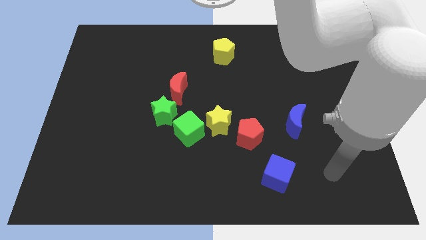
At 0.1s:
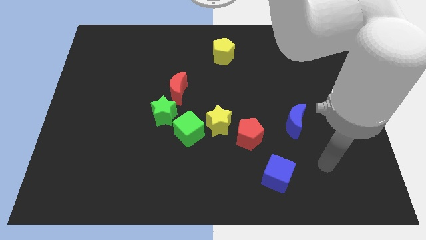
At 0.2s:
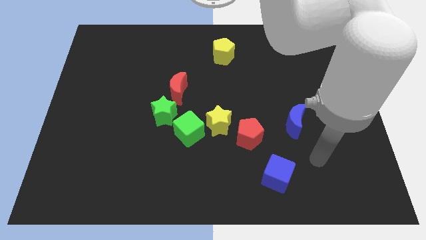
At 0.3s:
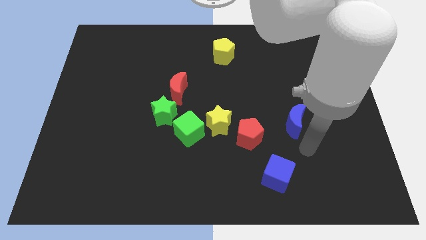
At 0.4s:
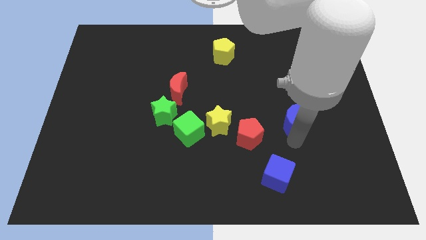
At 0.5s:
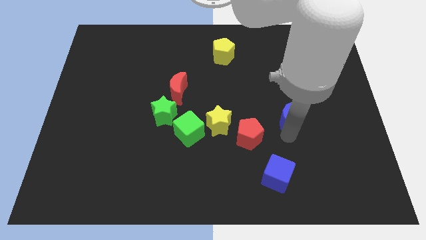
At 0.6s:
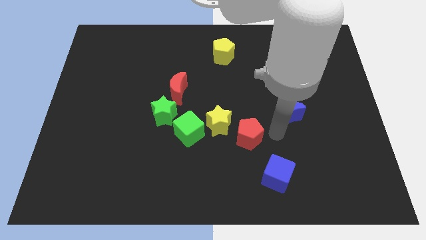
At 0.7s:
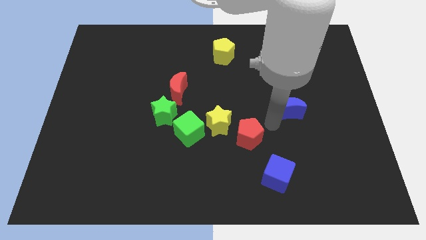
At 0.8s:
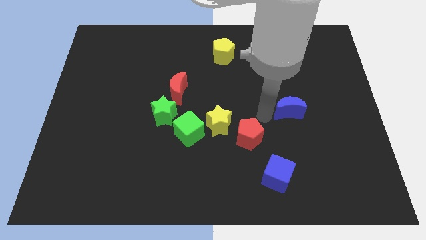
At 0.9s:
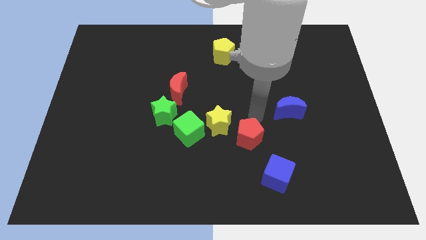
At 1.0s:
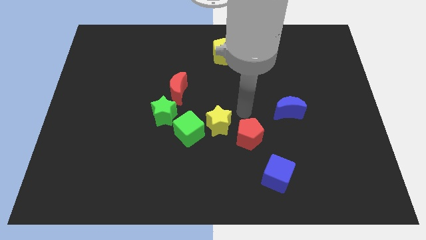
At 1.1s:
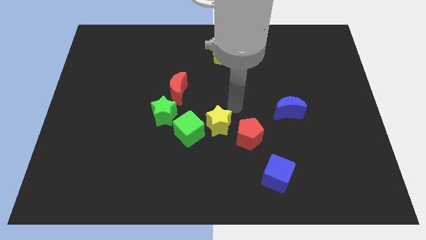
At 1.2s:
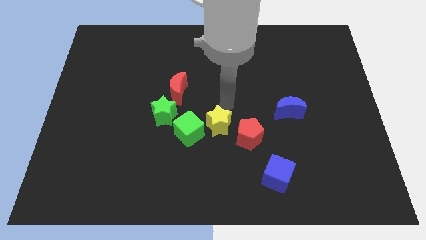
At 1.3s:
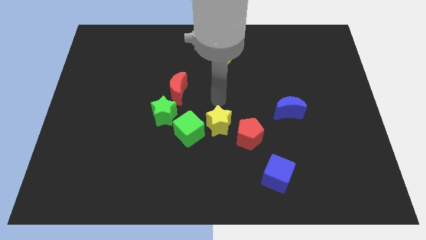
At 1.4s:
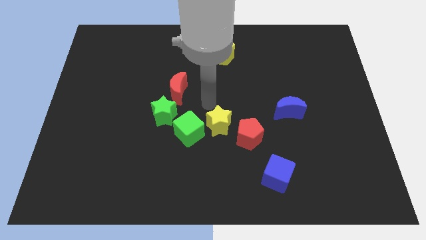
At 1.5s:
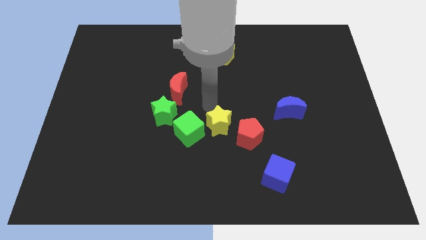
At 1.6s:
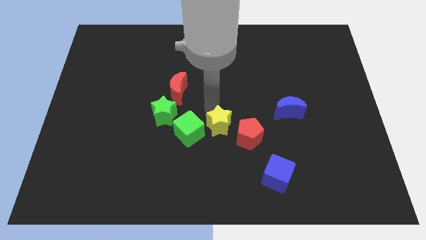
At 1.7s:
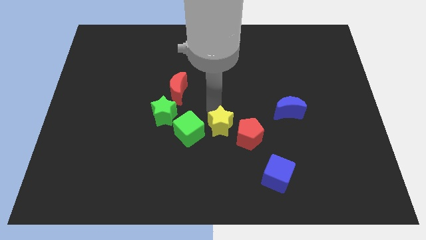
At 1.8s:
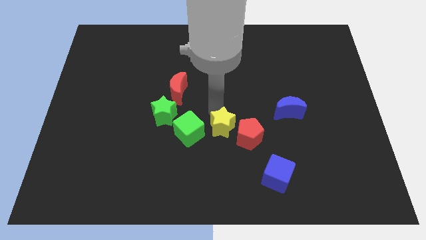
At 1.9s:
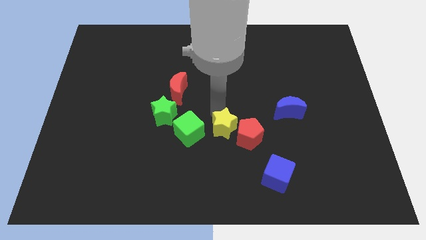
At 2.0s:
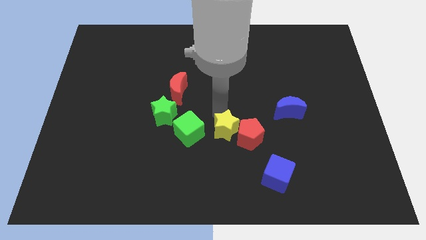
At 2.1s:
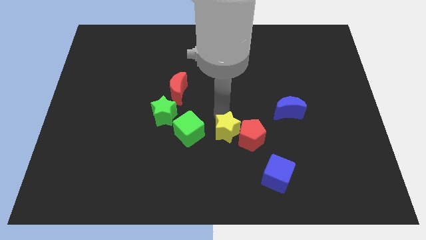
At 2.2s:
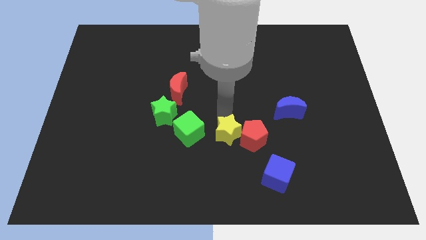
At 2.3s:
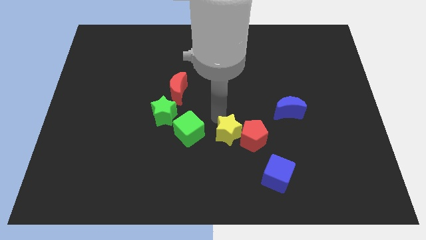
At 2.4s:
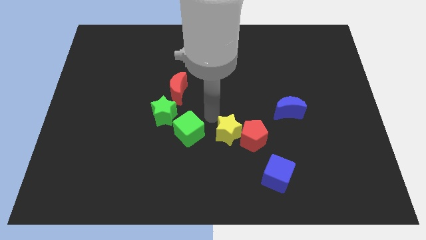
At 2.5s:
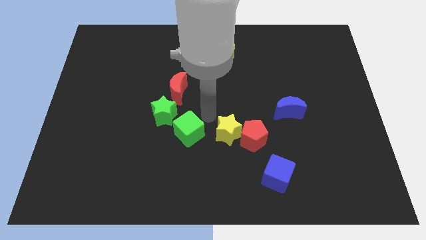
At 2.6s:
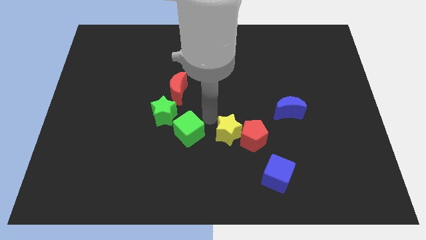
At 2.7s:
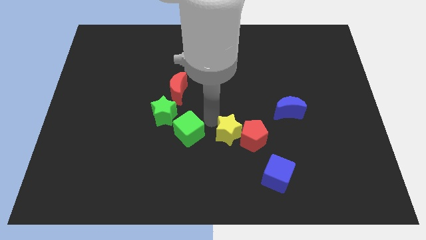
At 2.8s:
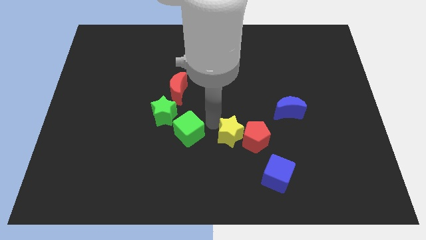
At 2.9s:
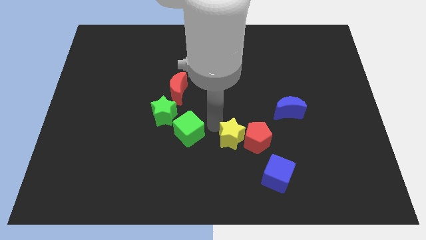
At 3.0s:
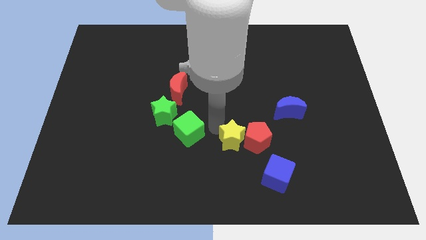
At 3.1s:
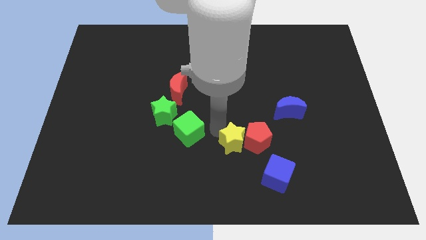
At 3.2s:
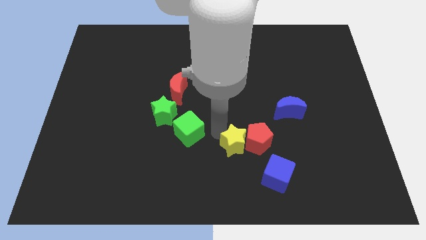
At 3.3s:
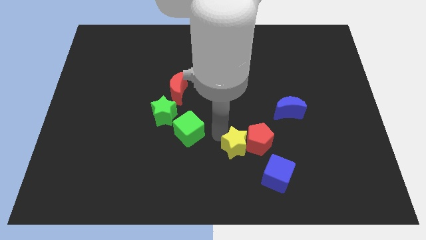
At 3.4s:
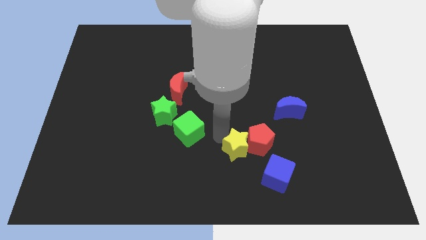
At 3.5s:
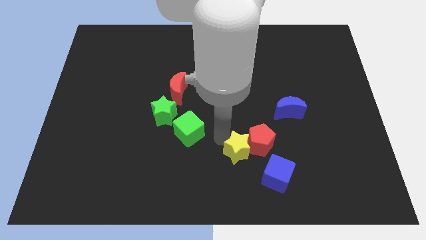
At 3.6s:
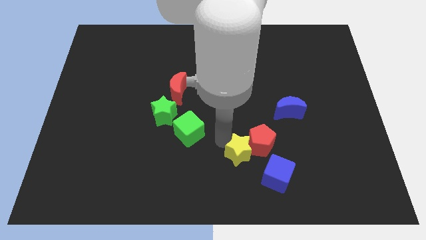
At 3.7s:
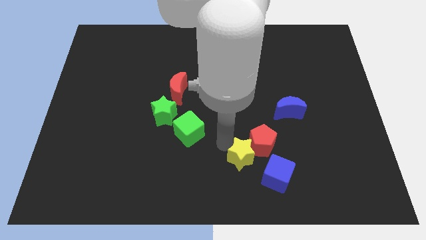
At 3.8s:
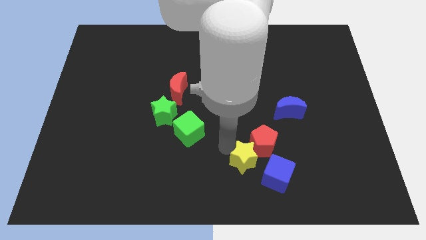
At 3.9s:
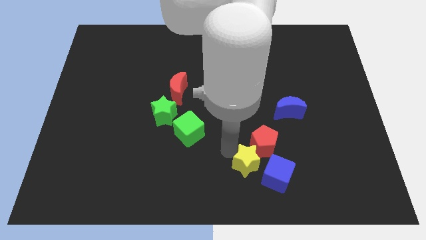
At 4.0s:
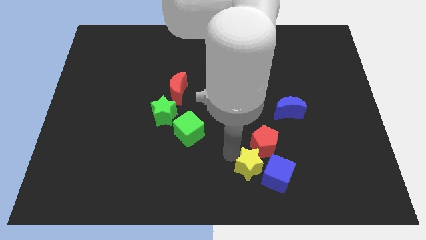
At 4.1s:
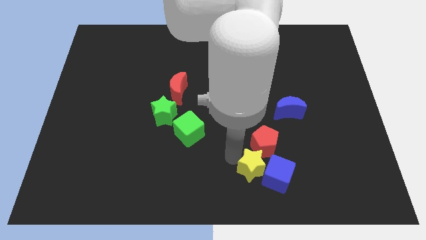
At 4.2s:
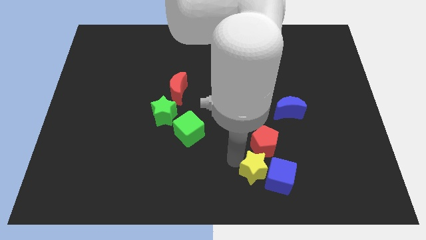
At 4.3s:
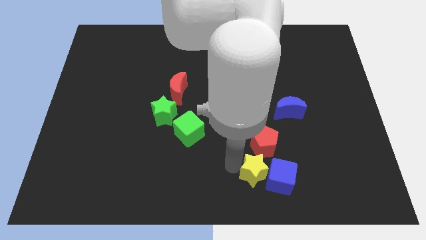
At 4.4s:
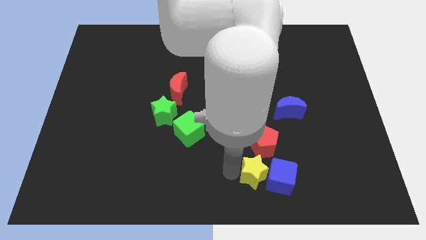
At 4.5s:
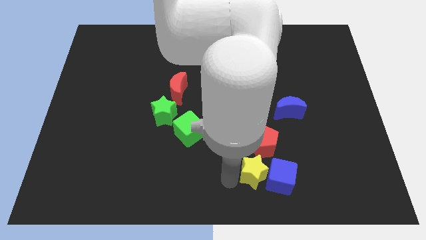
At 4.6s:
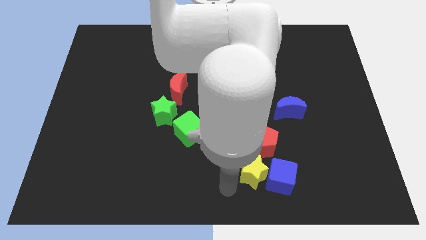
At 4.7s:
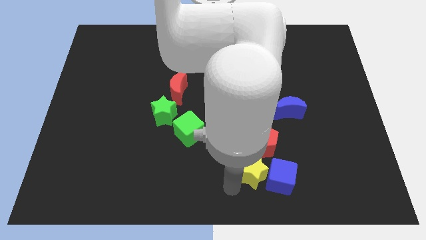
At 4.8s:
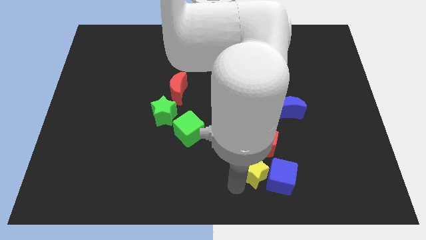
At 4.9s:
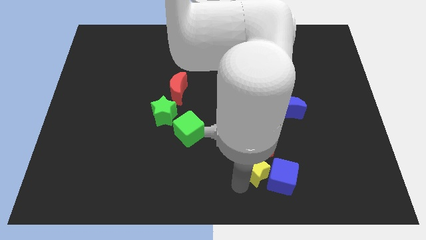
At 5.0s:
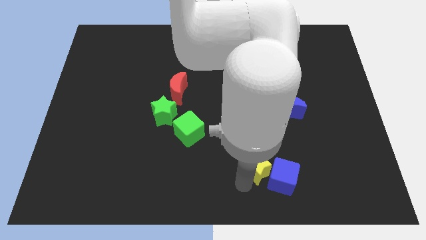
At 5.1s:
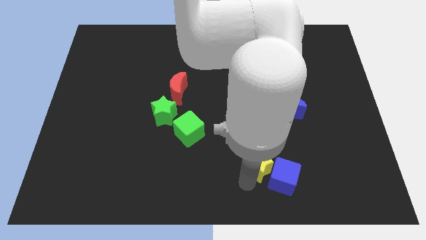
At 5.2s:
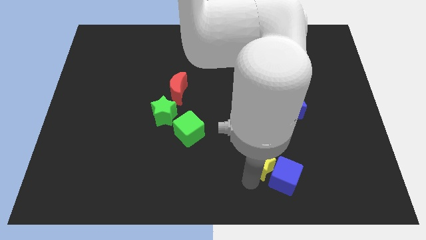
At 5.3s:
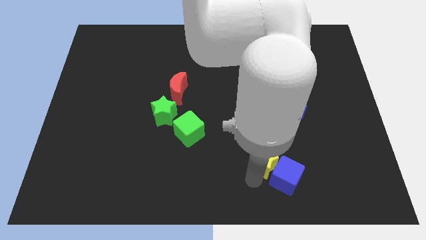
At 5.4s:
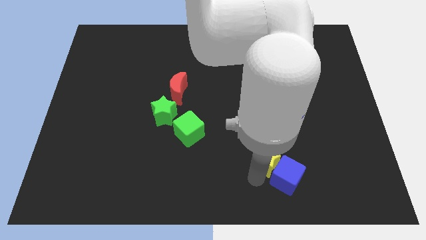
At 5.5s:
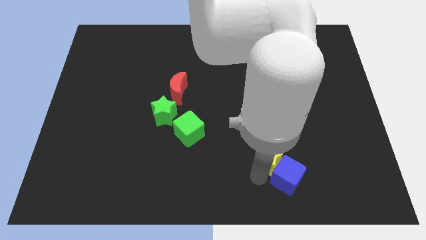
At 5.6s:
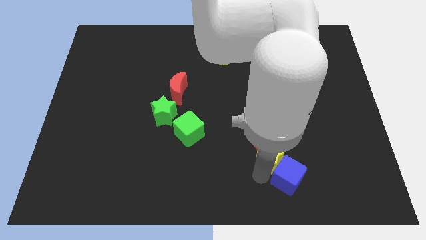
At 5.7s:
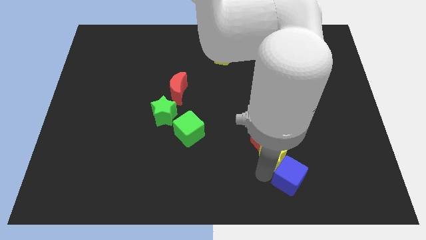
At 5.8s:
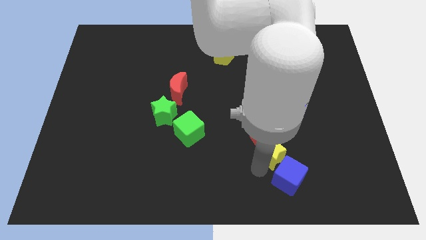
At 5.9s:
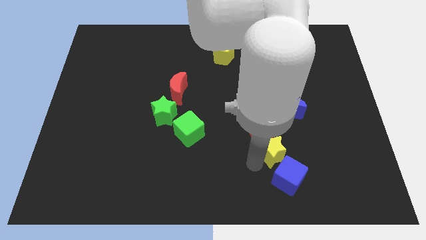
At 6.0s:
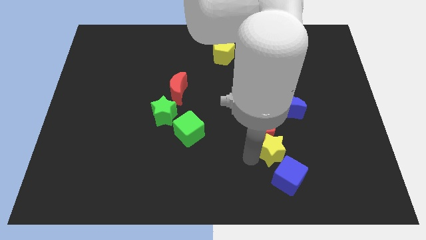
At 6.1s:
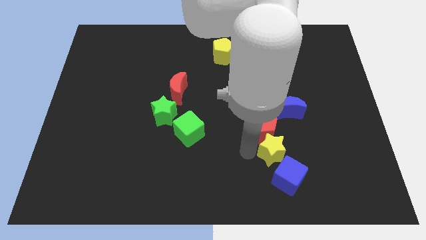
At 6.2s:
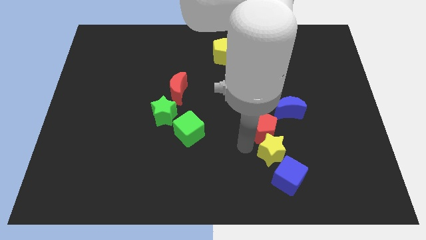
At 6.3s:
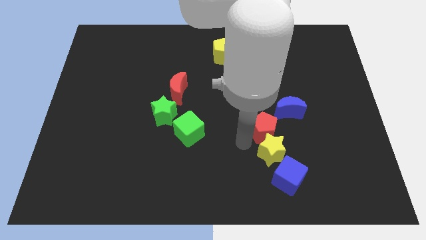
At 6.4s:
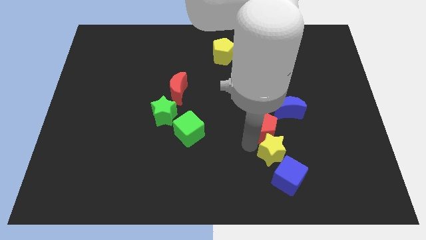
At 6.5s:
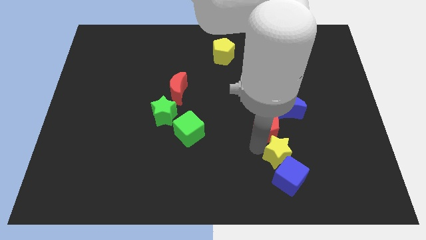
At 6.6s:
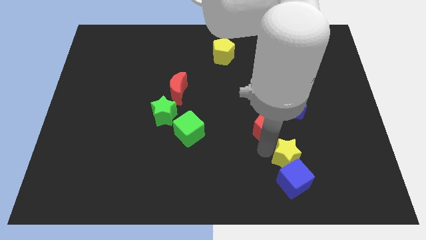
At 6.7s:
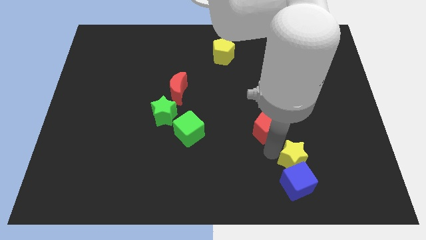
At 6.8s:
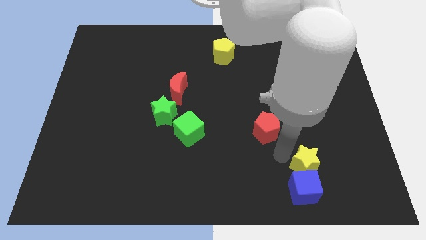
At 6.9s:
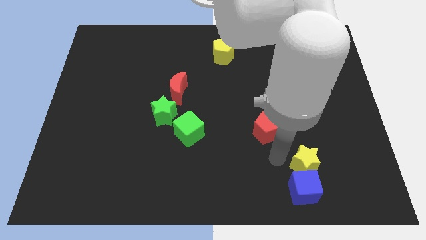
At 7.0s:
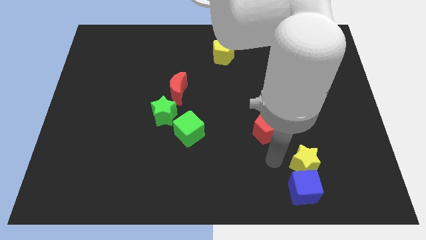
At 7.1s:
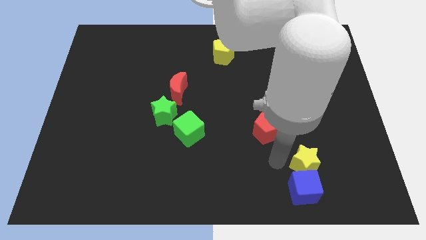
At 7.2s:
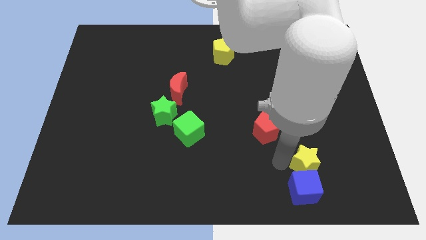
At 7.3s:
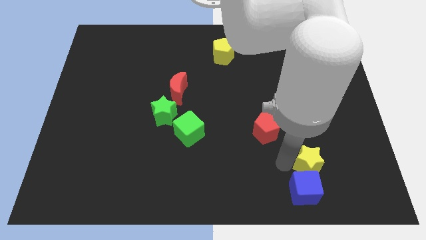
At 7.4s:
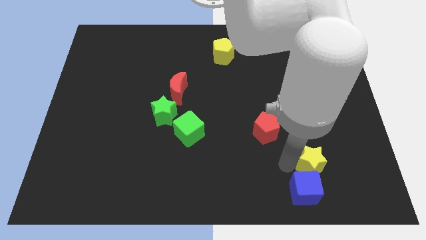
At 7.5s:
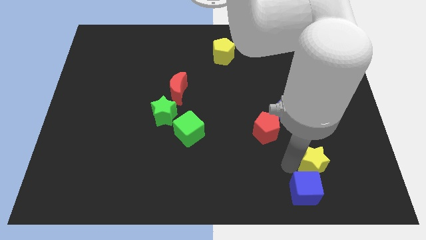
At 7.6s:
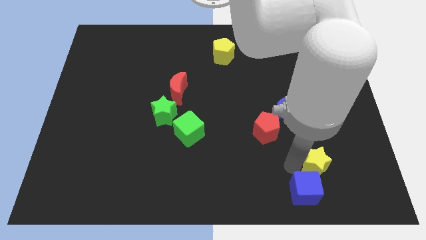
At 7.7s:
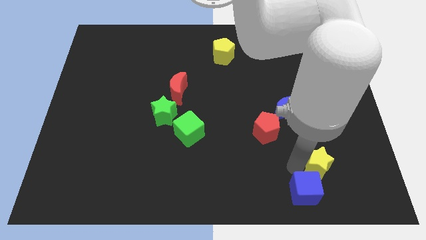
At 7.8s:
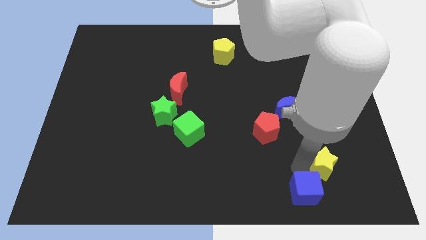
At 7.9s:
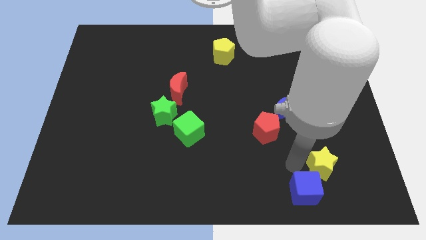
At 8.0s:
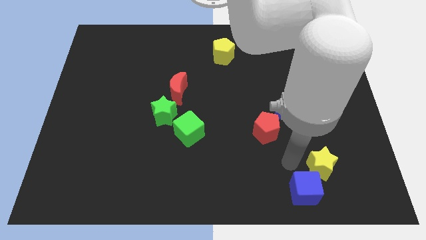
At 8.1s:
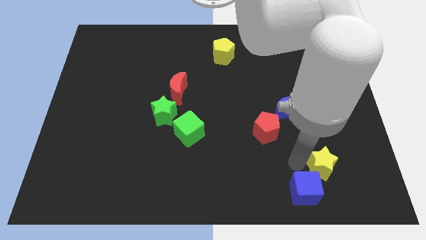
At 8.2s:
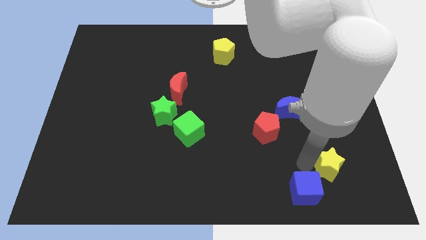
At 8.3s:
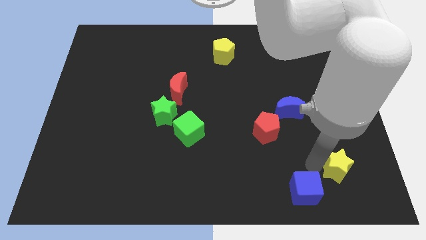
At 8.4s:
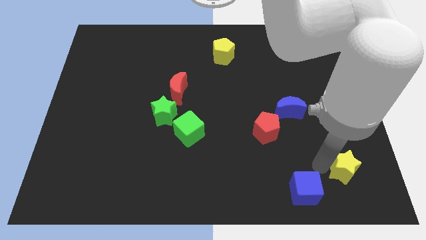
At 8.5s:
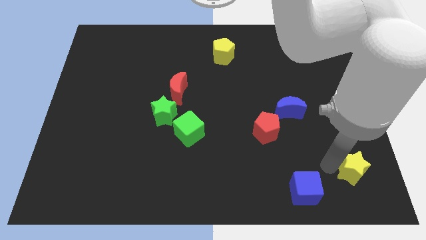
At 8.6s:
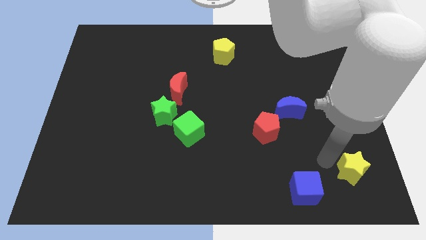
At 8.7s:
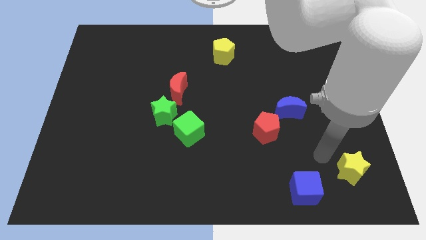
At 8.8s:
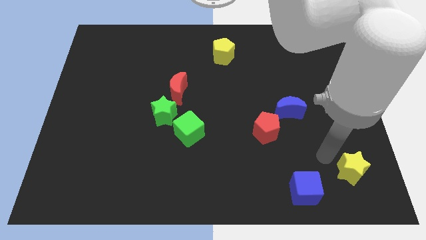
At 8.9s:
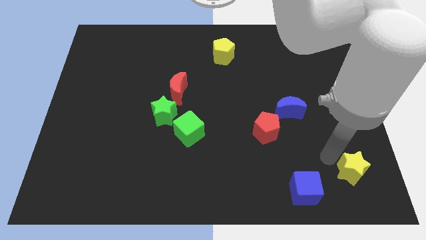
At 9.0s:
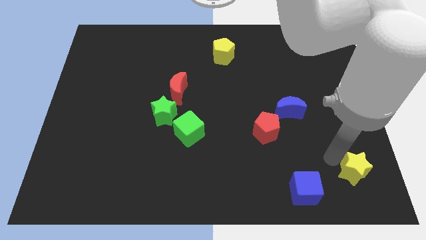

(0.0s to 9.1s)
slide the yellow star to the bottom right of the board
